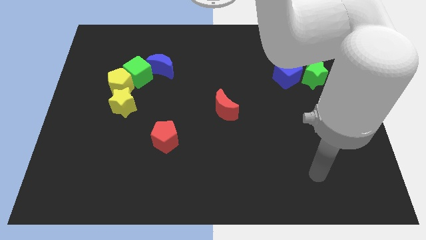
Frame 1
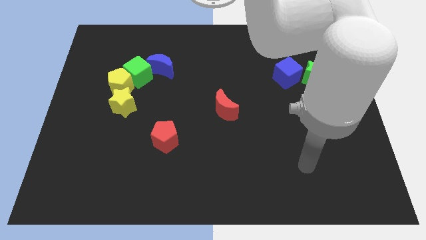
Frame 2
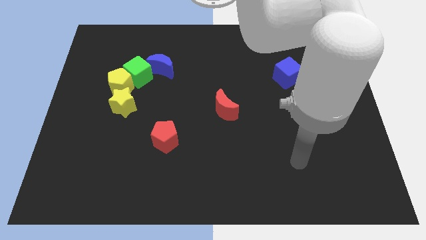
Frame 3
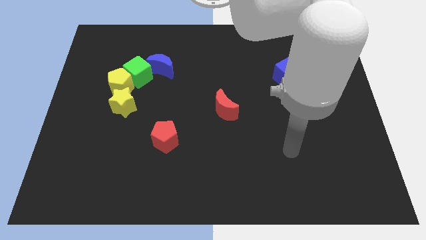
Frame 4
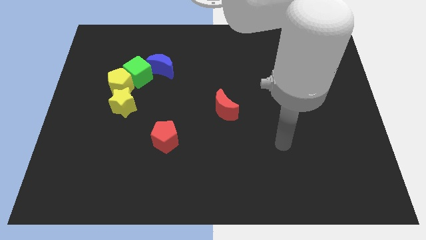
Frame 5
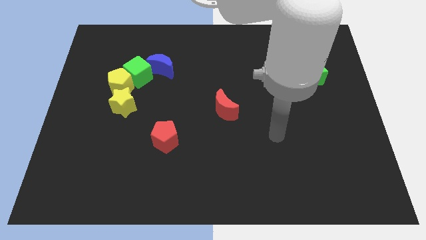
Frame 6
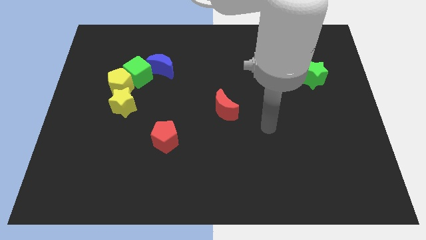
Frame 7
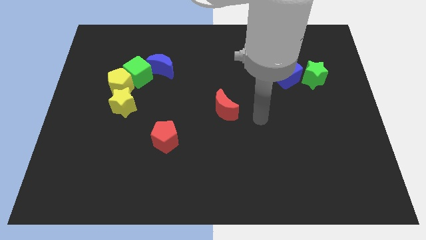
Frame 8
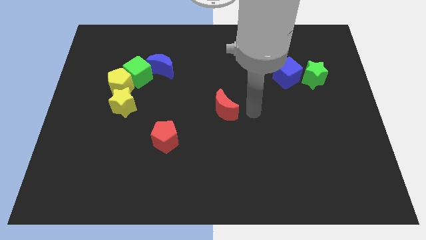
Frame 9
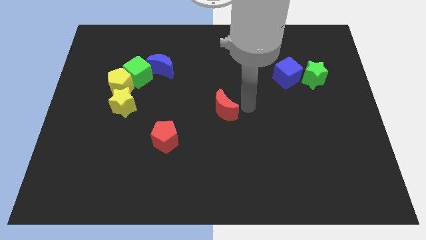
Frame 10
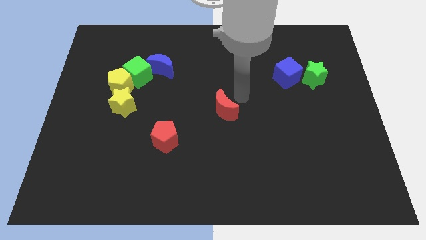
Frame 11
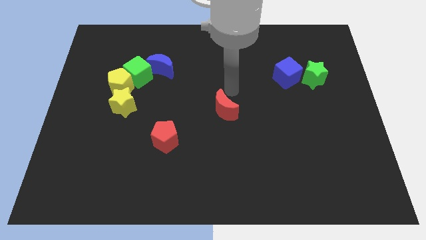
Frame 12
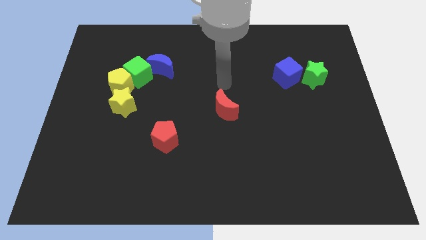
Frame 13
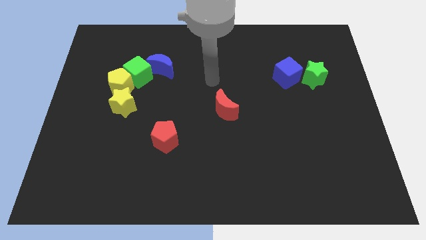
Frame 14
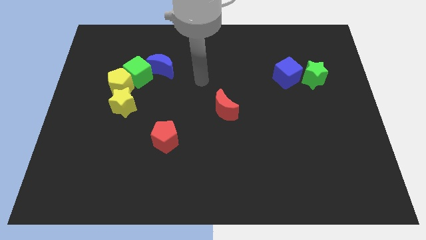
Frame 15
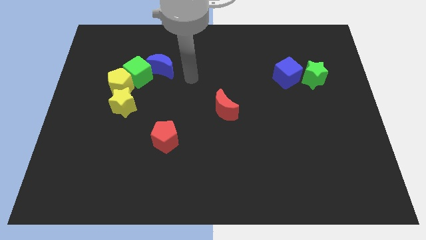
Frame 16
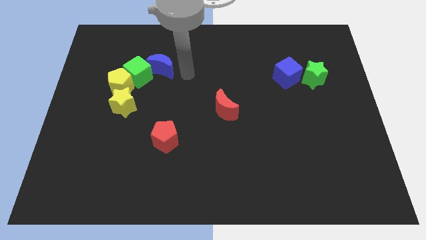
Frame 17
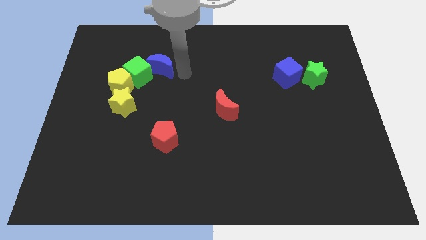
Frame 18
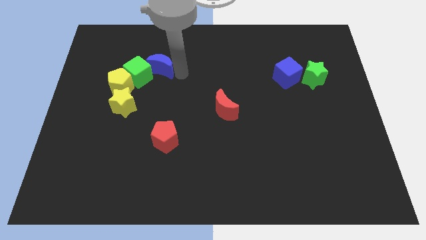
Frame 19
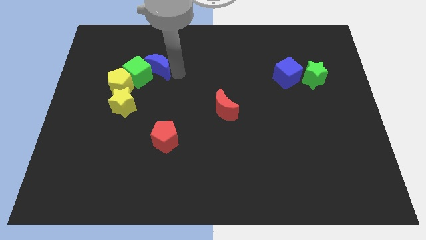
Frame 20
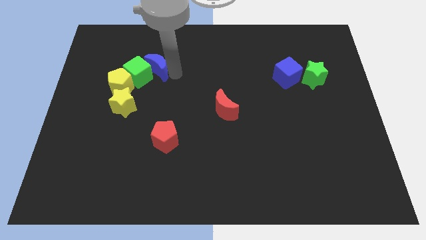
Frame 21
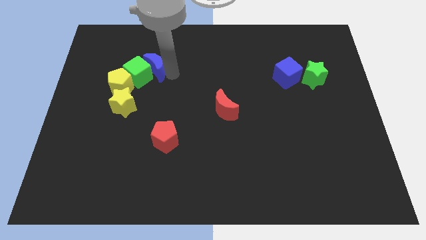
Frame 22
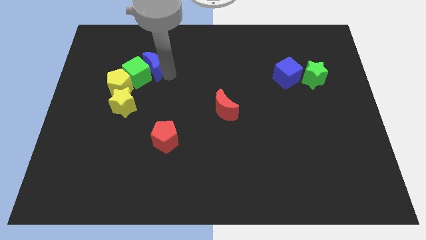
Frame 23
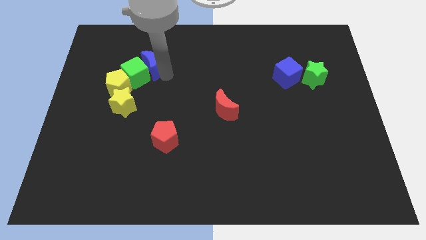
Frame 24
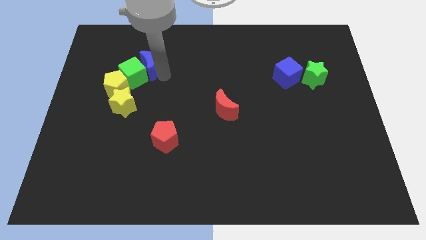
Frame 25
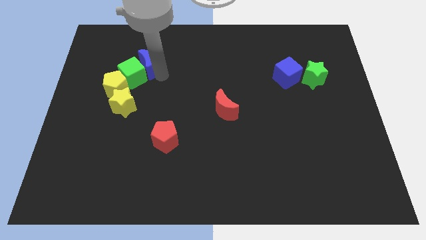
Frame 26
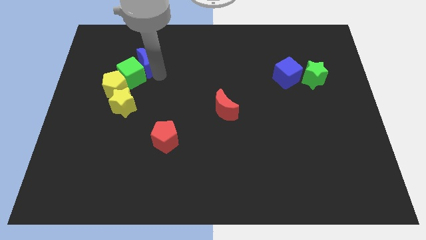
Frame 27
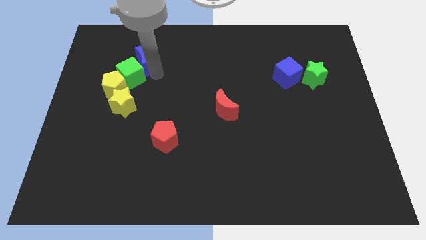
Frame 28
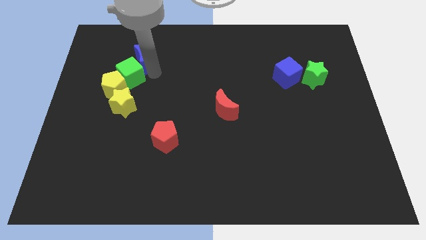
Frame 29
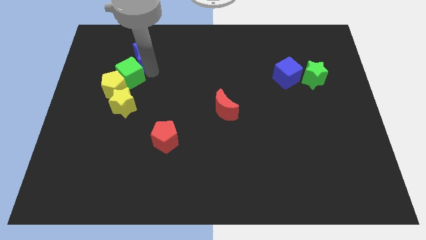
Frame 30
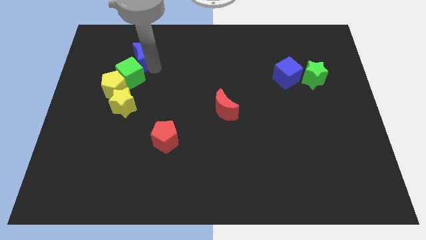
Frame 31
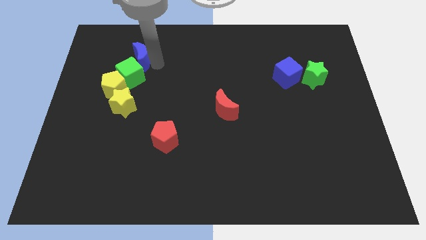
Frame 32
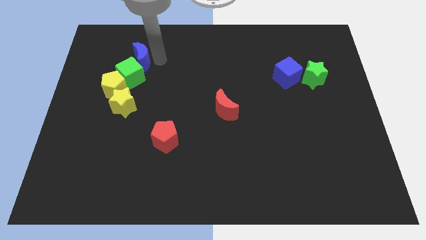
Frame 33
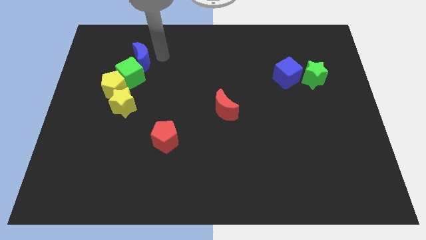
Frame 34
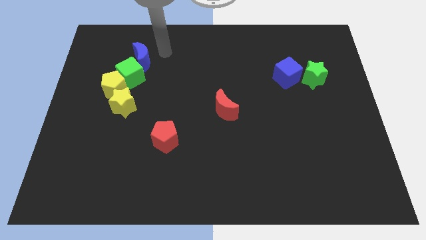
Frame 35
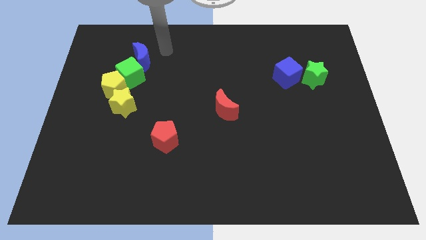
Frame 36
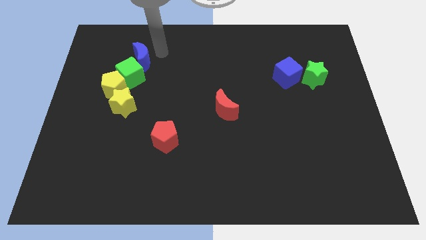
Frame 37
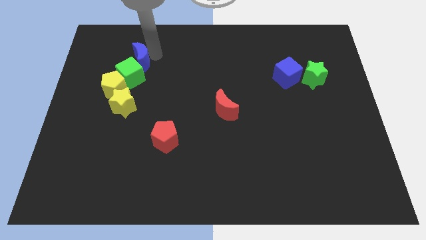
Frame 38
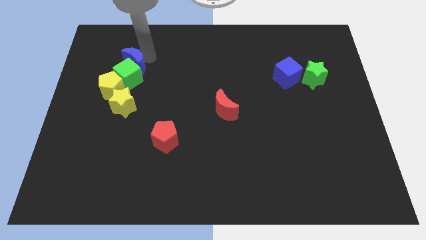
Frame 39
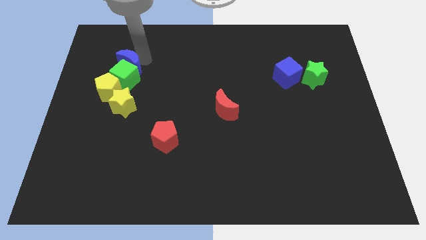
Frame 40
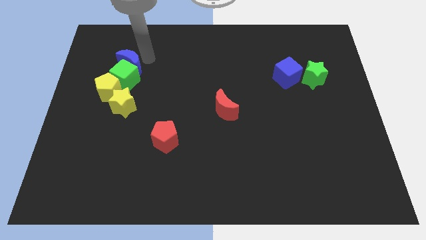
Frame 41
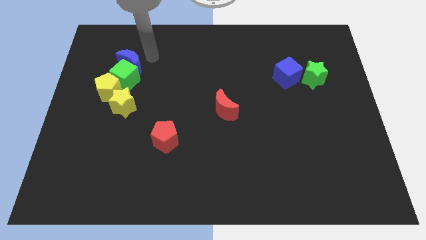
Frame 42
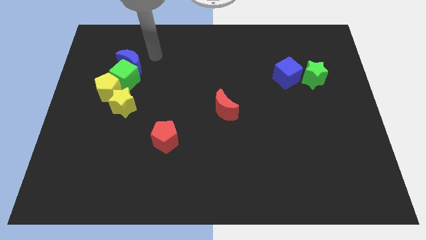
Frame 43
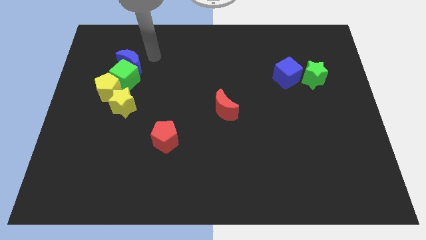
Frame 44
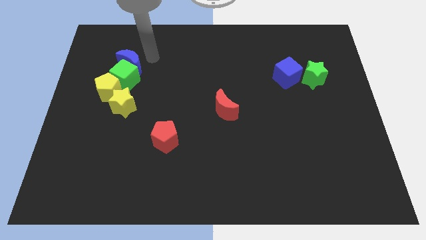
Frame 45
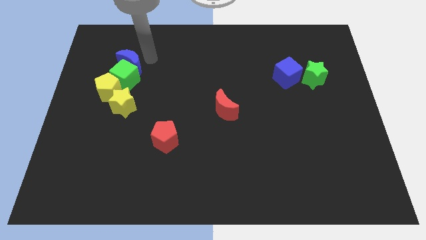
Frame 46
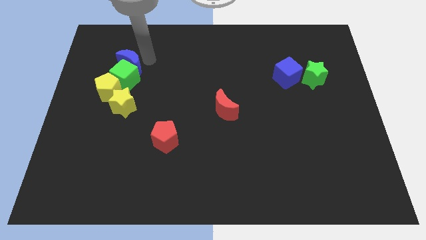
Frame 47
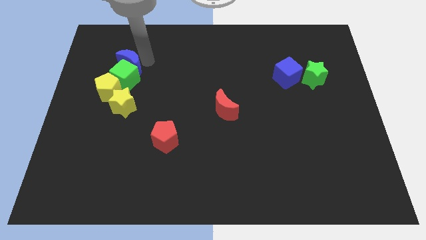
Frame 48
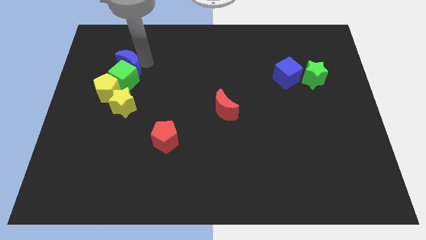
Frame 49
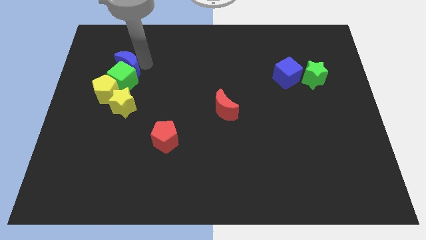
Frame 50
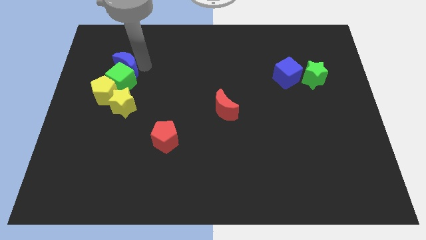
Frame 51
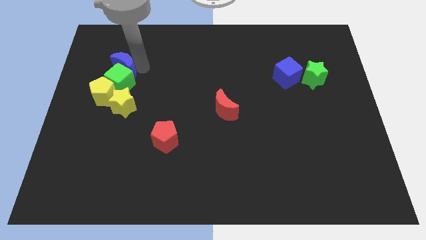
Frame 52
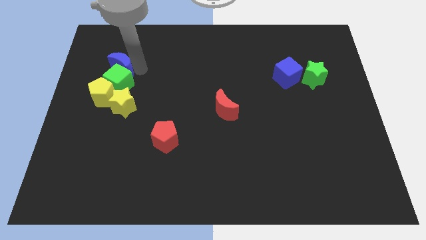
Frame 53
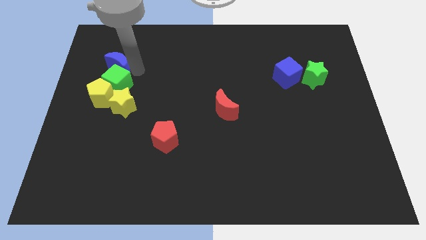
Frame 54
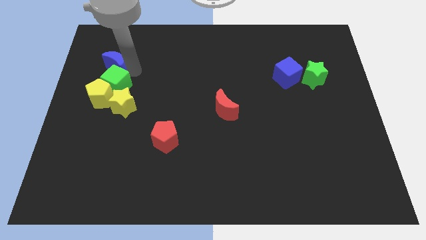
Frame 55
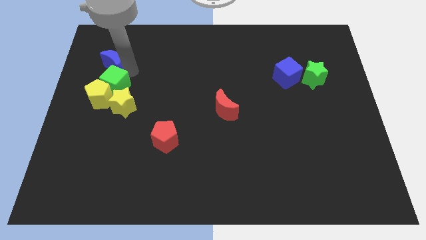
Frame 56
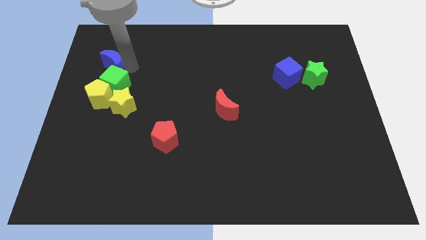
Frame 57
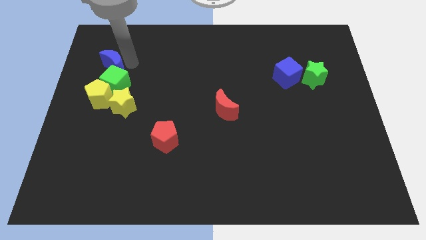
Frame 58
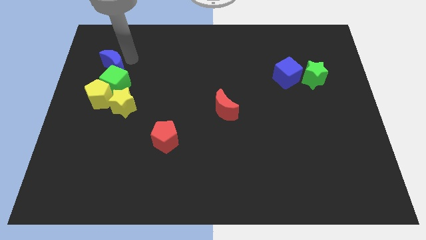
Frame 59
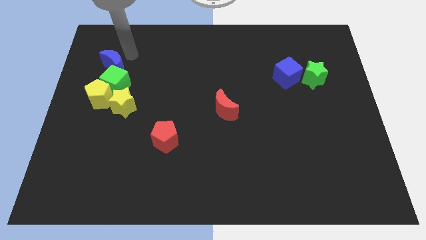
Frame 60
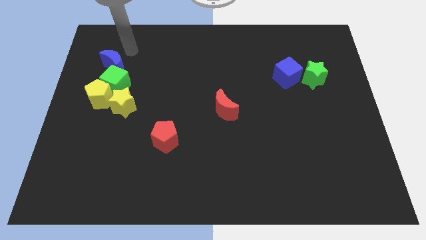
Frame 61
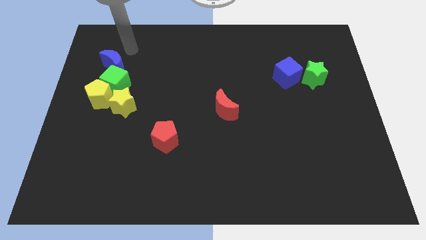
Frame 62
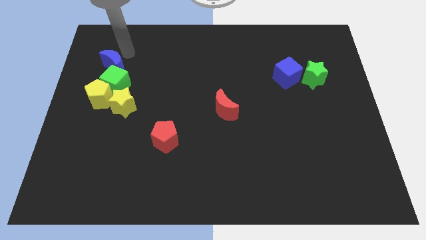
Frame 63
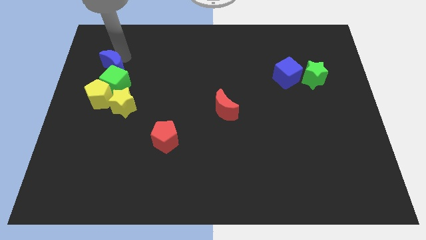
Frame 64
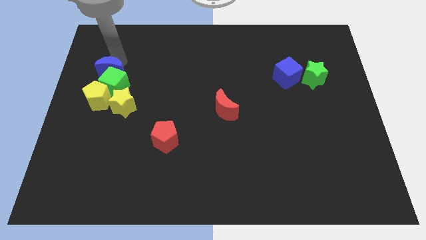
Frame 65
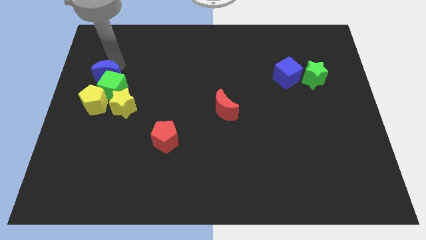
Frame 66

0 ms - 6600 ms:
move the blue moon downwards and to the left slightly

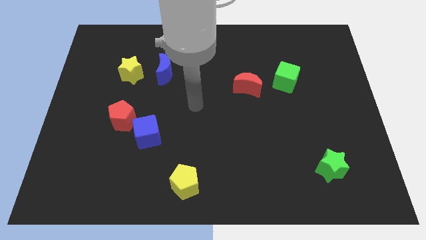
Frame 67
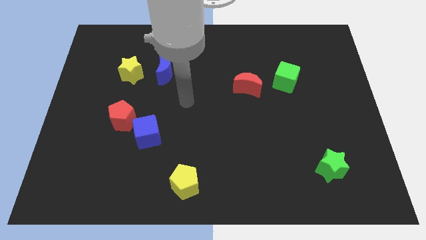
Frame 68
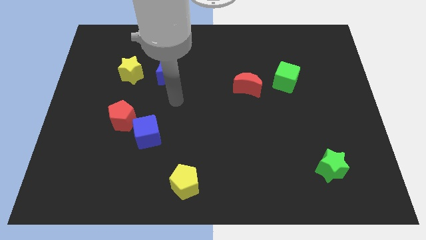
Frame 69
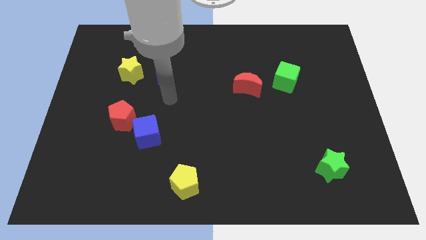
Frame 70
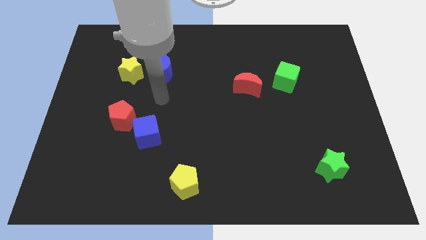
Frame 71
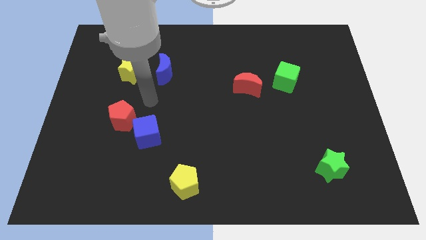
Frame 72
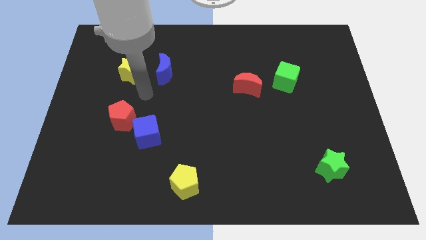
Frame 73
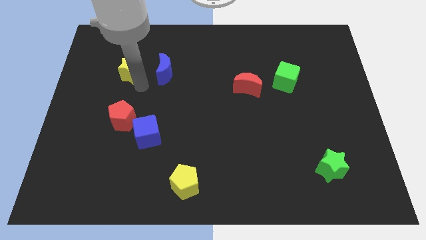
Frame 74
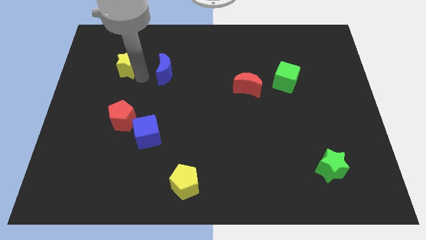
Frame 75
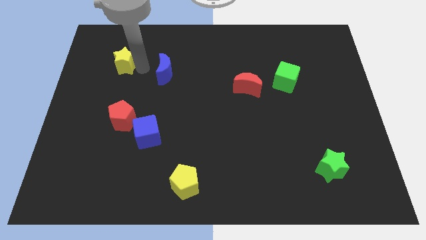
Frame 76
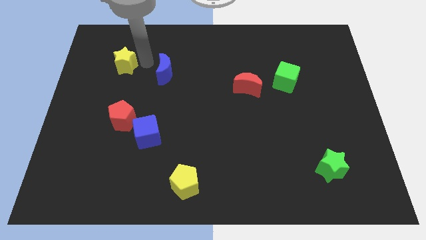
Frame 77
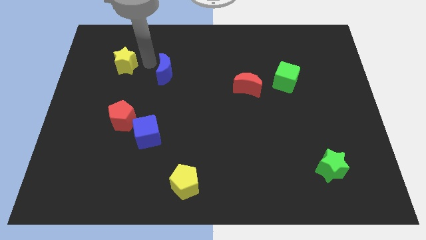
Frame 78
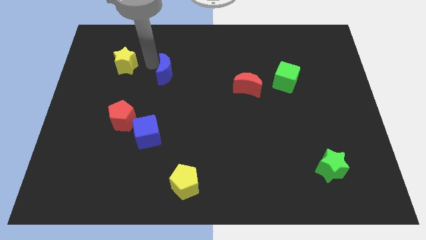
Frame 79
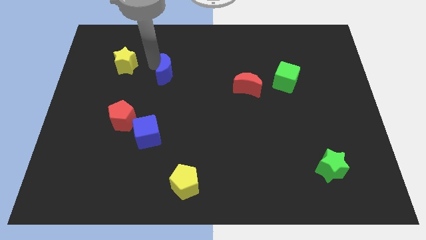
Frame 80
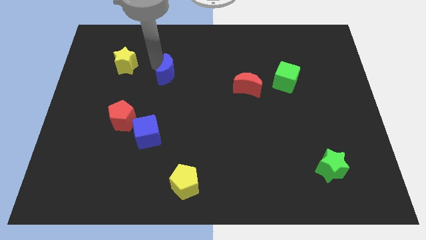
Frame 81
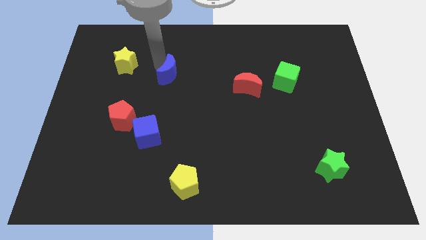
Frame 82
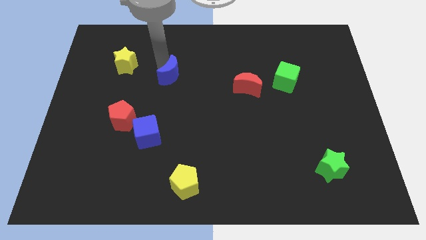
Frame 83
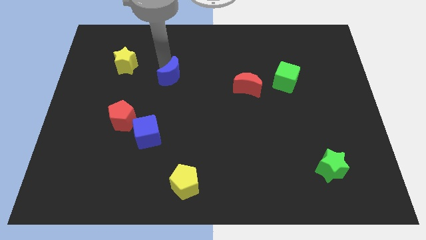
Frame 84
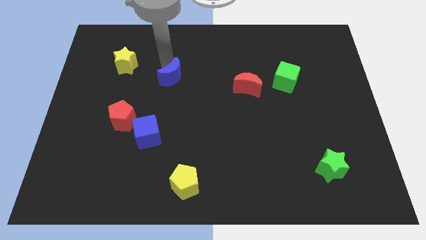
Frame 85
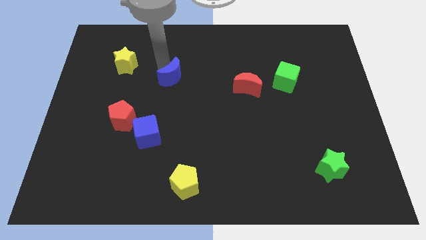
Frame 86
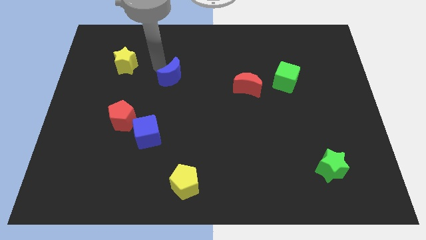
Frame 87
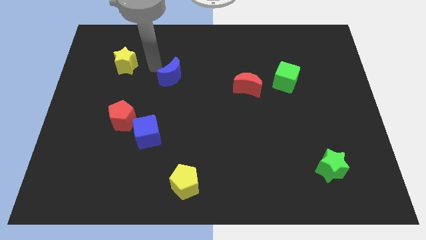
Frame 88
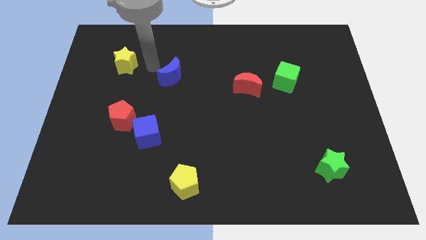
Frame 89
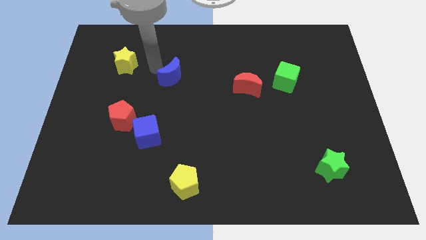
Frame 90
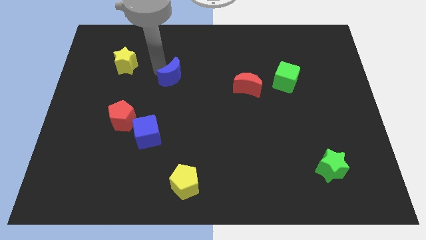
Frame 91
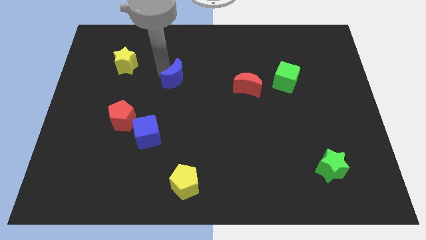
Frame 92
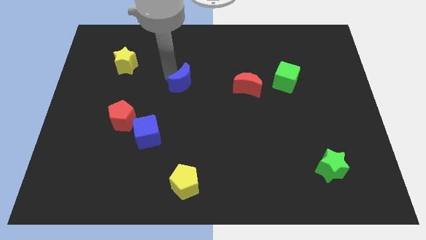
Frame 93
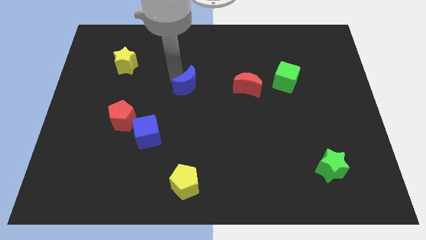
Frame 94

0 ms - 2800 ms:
push the blue moon slightly diagonally downwards and right
